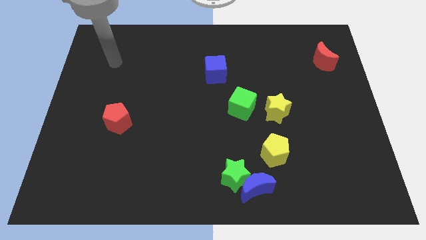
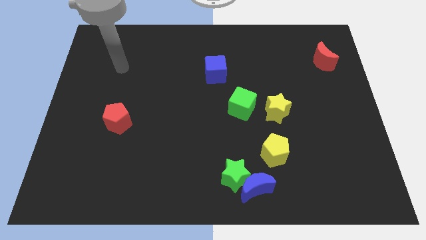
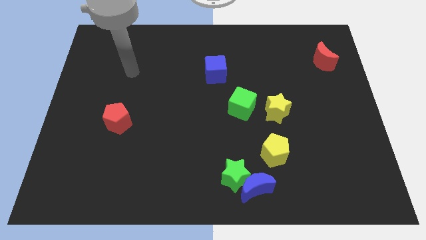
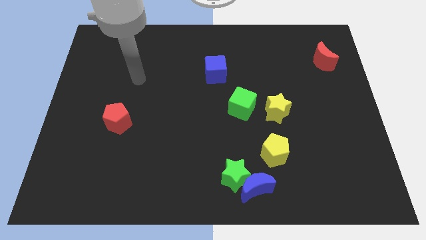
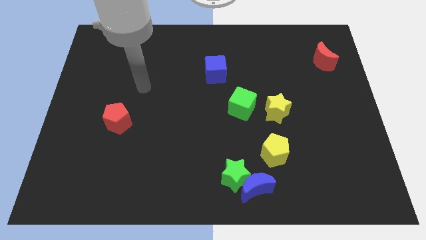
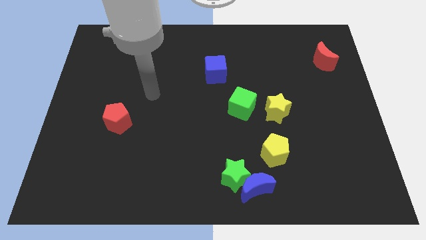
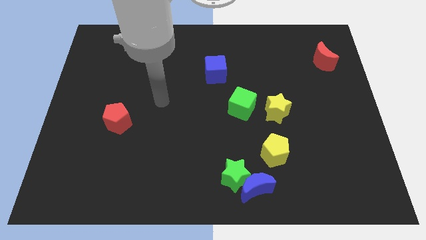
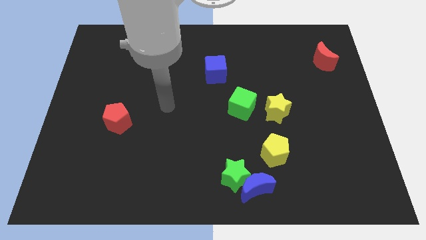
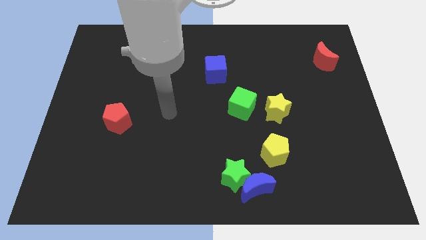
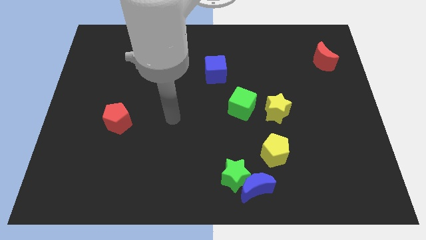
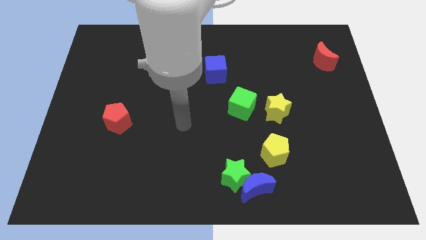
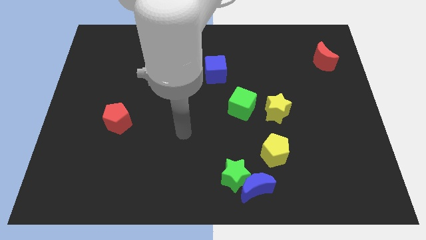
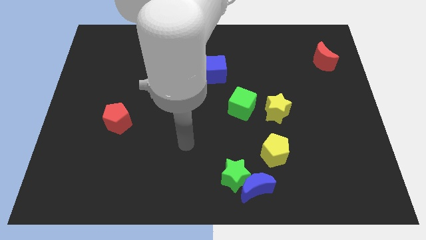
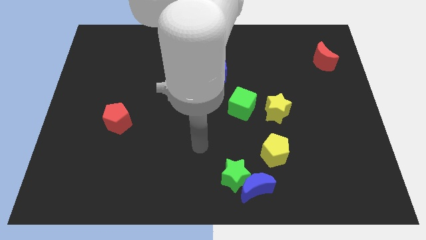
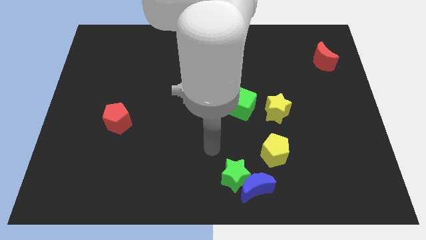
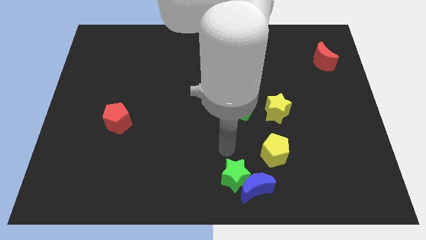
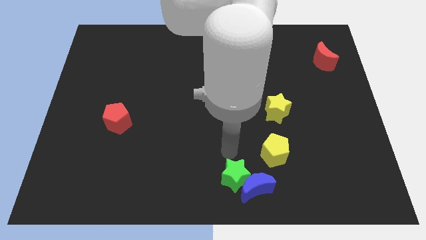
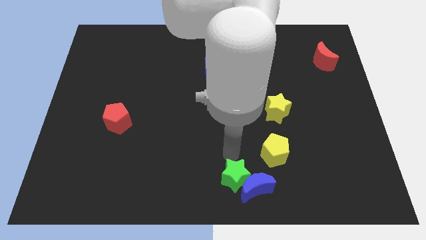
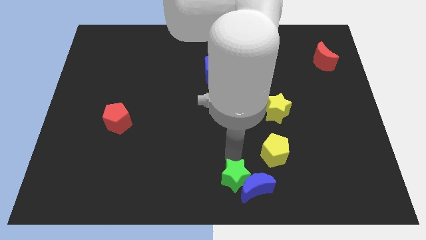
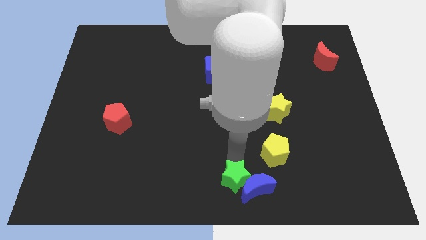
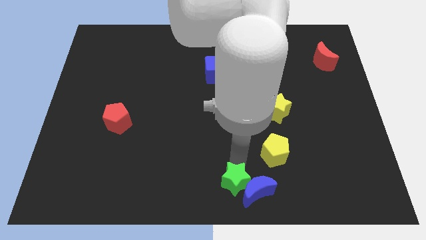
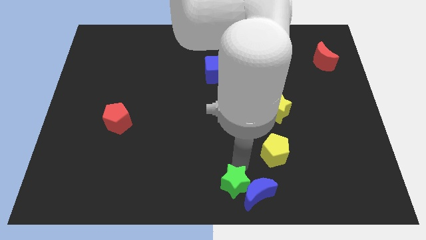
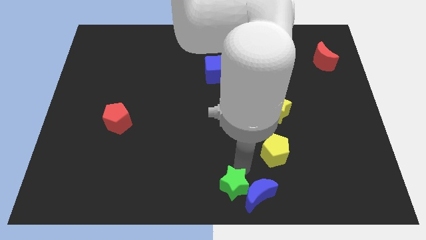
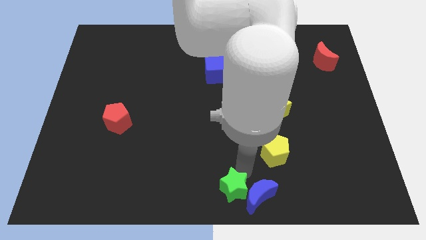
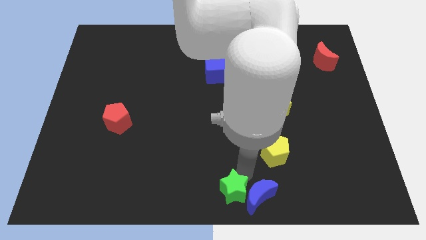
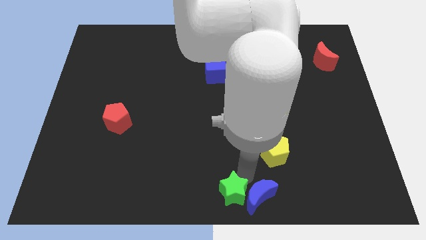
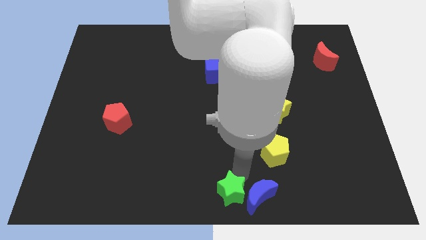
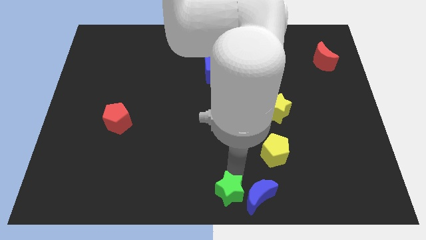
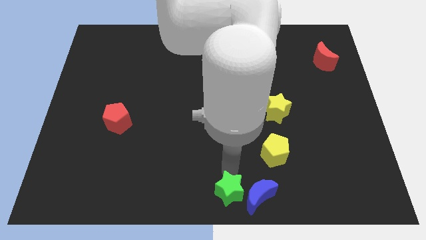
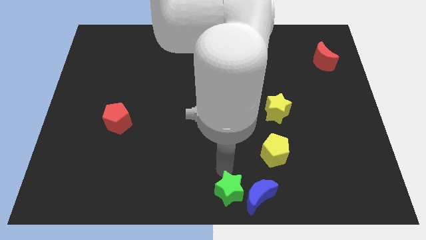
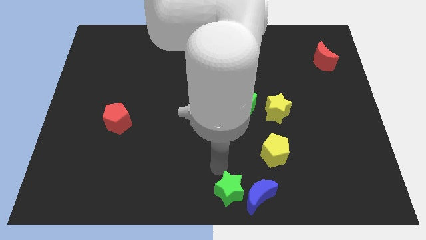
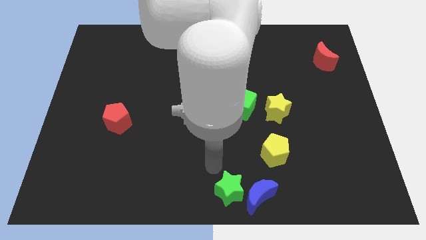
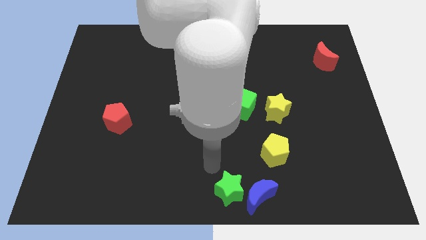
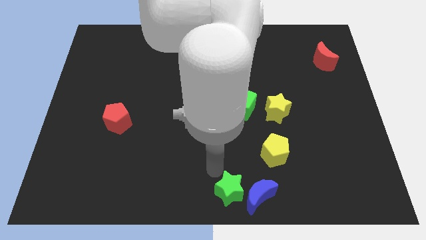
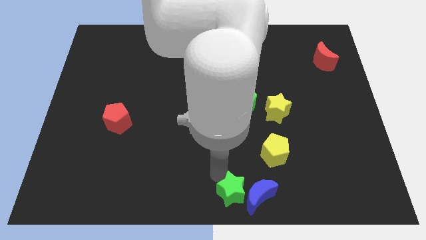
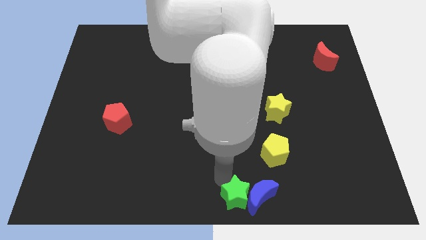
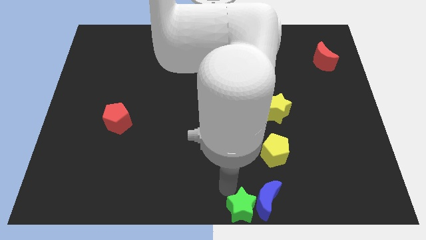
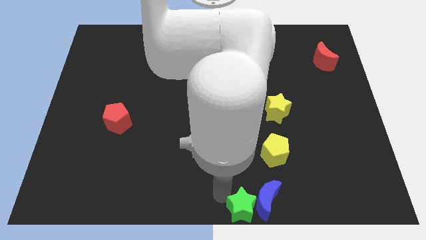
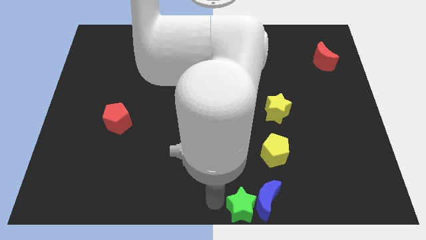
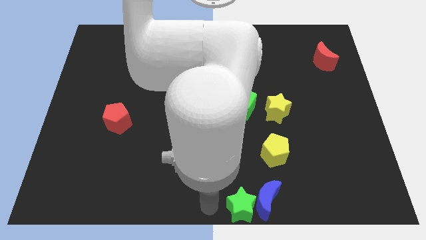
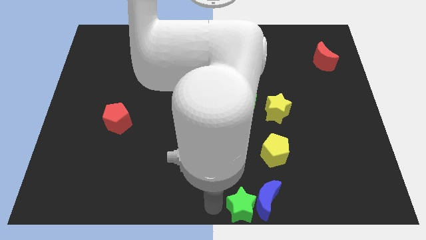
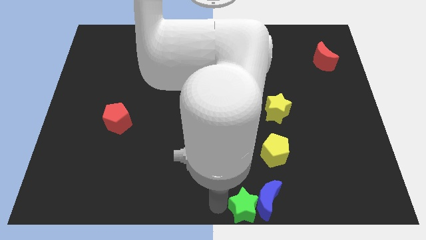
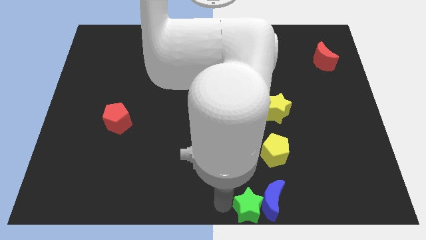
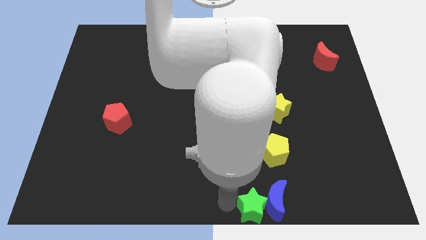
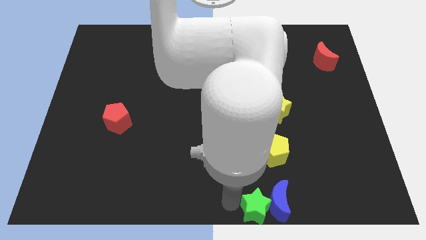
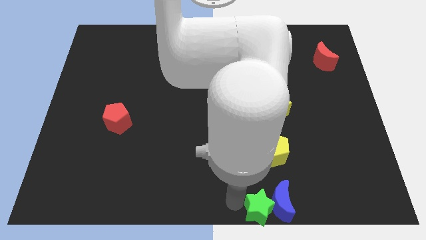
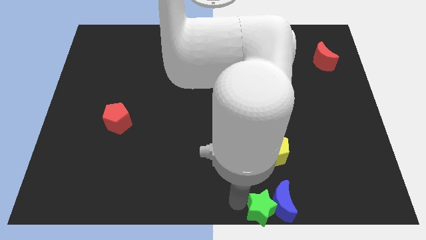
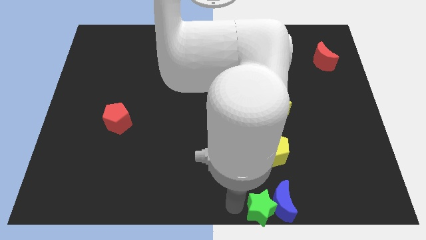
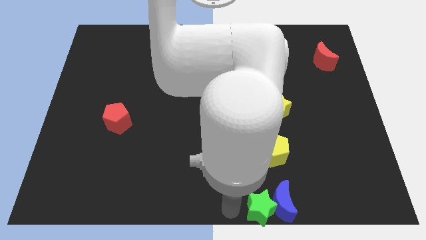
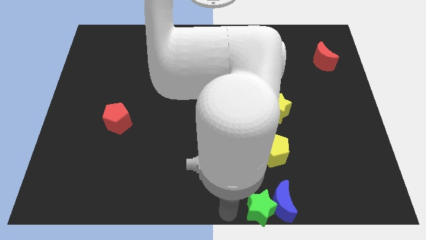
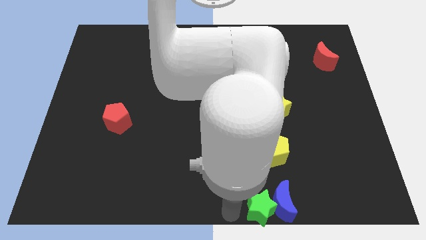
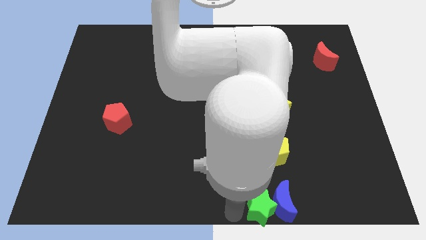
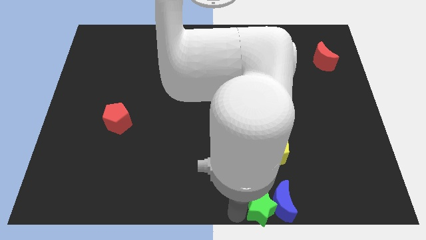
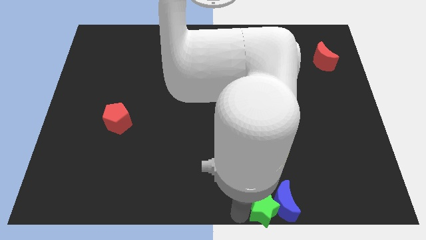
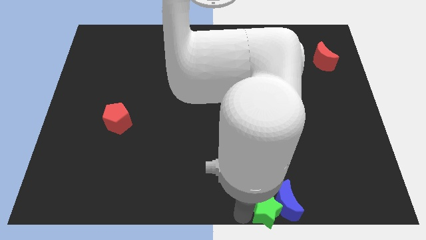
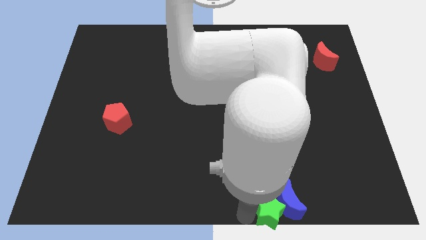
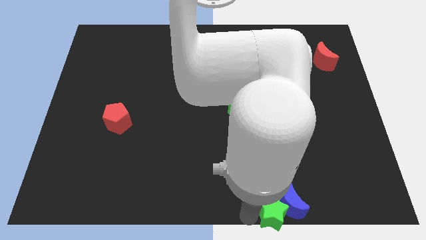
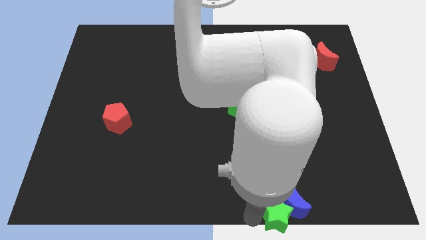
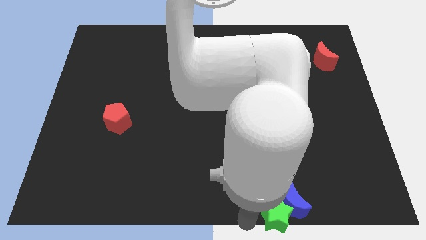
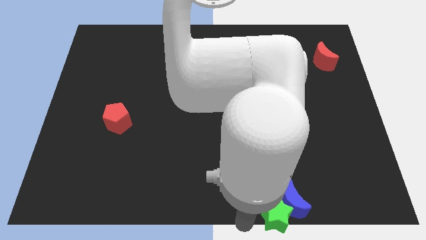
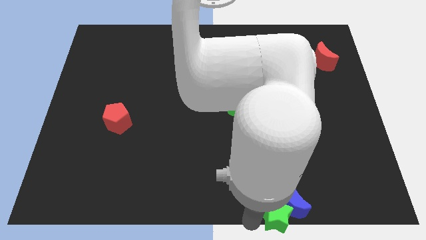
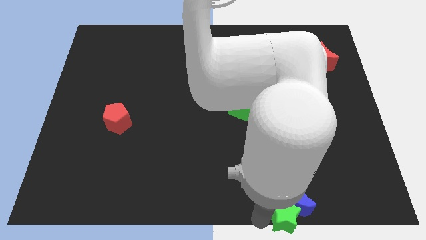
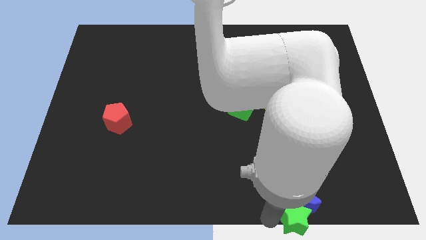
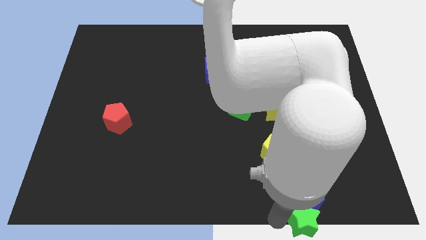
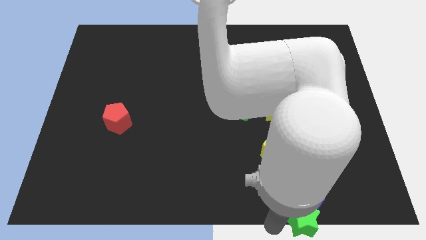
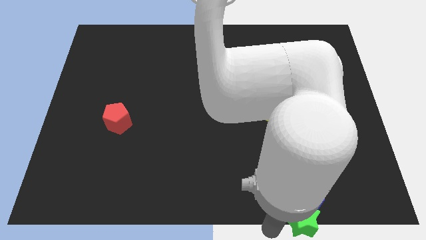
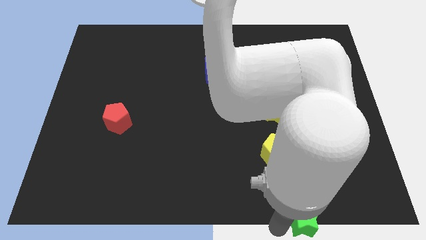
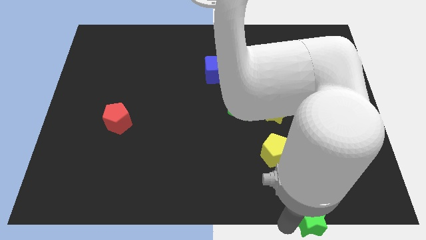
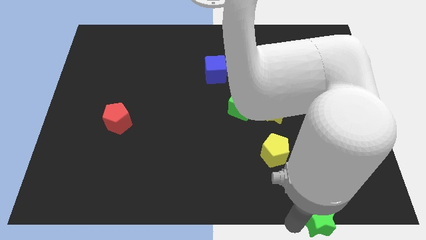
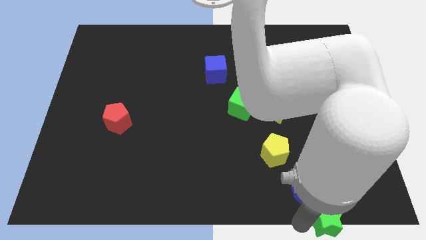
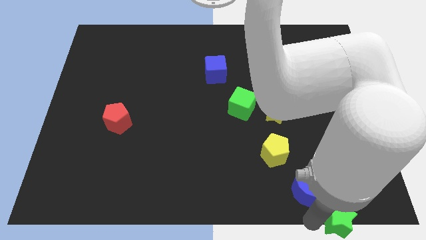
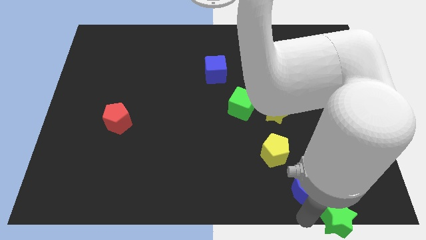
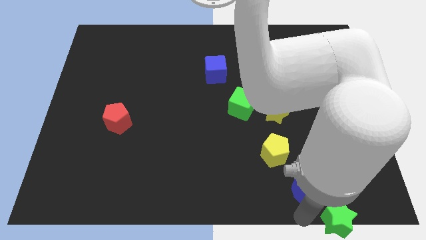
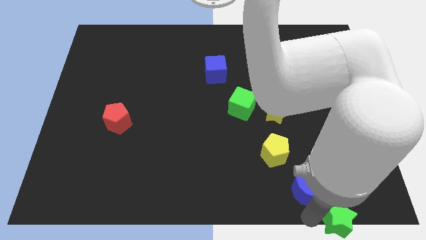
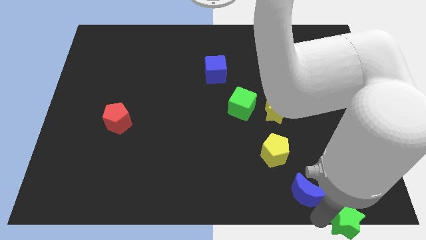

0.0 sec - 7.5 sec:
slide the green star to the bottom right
